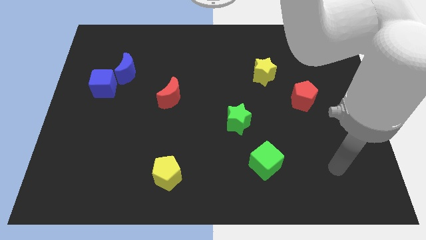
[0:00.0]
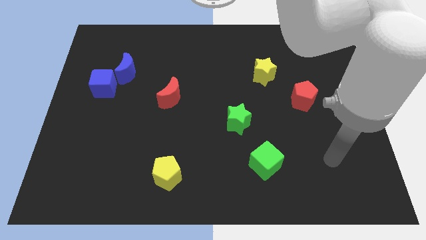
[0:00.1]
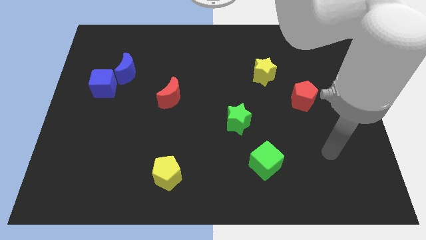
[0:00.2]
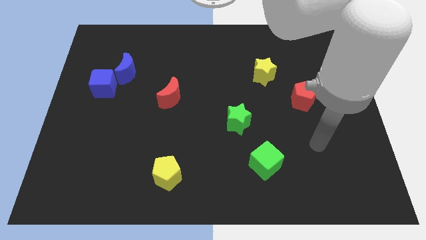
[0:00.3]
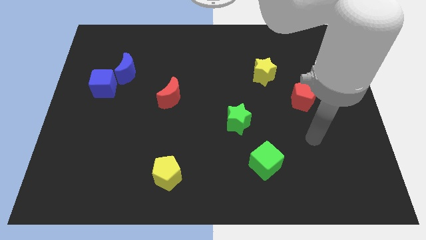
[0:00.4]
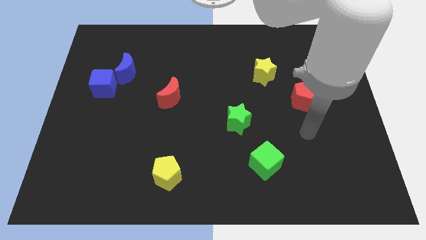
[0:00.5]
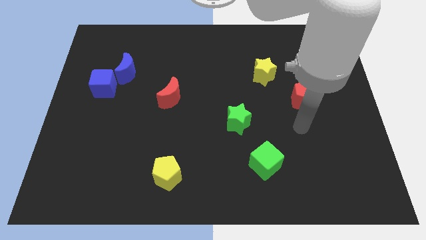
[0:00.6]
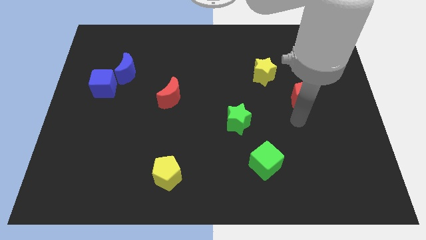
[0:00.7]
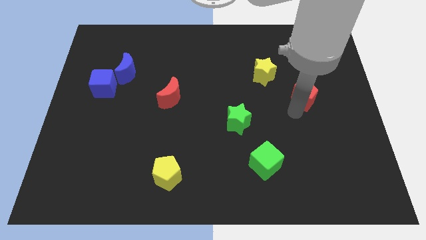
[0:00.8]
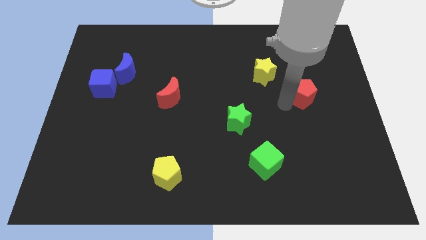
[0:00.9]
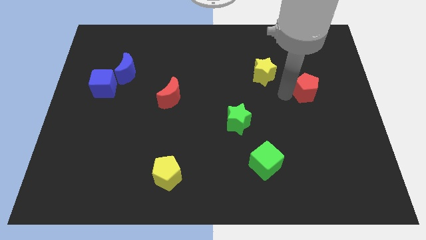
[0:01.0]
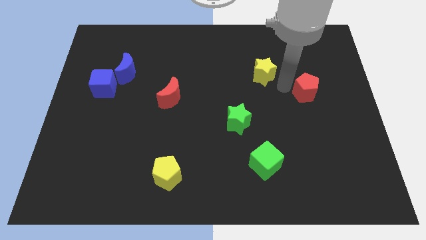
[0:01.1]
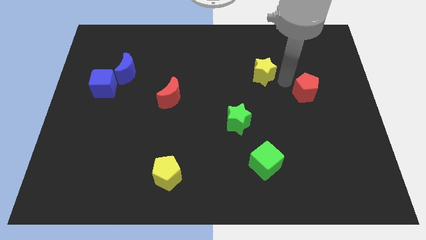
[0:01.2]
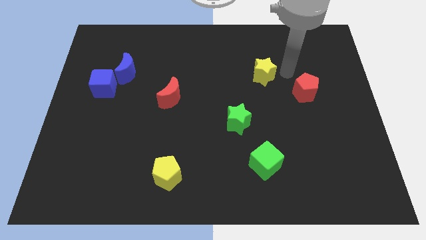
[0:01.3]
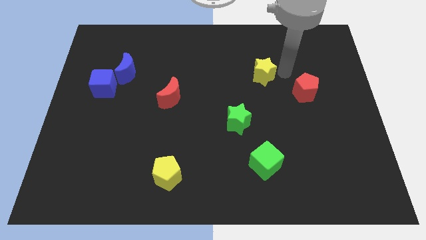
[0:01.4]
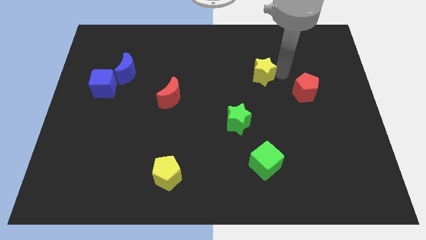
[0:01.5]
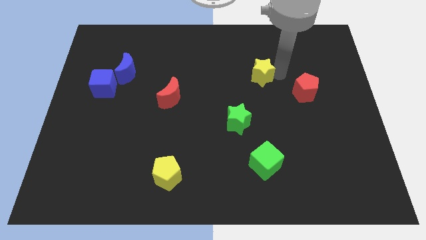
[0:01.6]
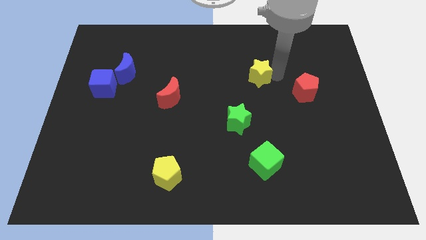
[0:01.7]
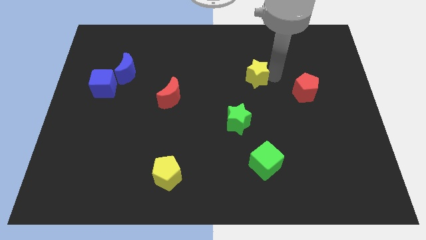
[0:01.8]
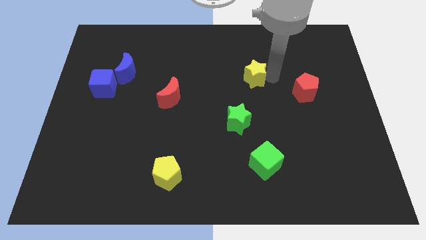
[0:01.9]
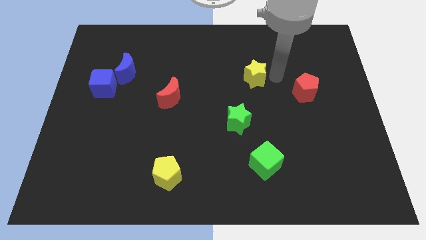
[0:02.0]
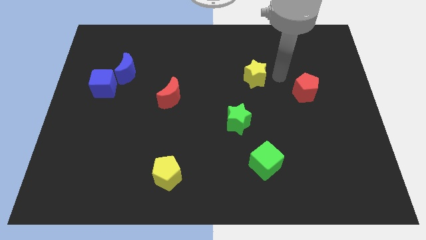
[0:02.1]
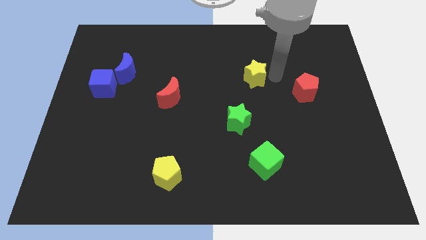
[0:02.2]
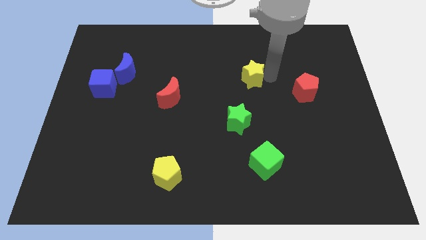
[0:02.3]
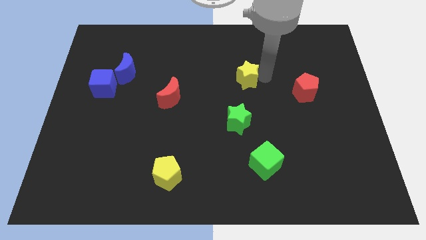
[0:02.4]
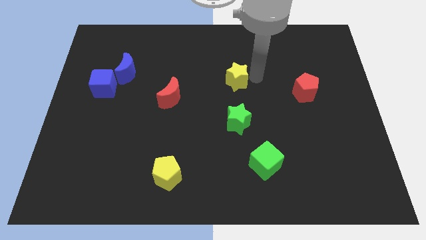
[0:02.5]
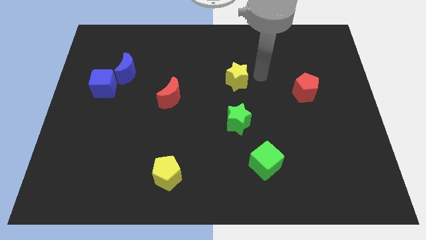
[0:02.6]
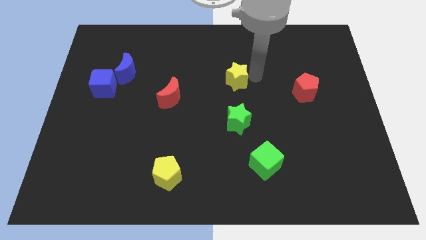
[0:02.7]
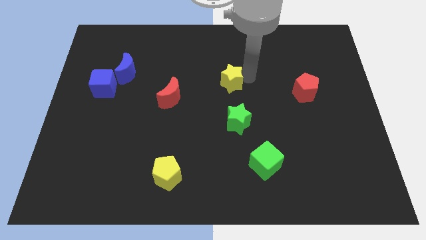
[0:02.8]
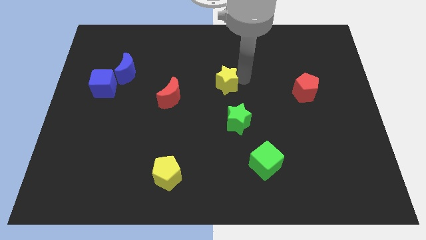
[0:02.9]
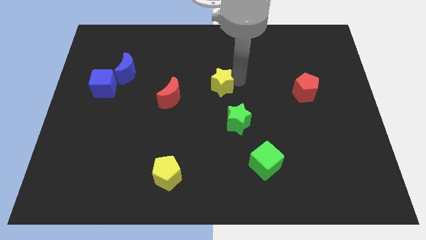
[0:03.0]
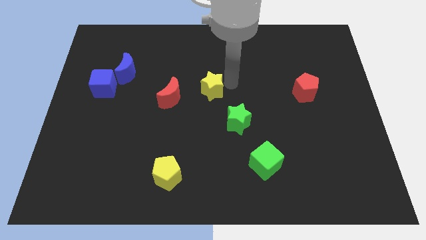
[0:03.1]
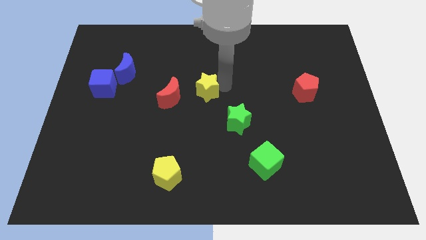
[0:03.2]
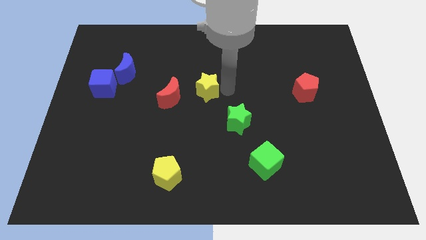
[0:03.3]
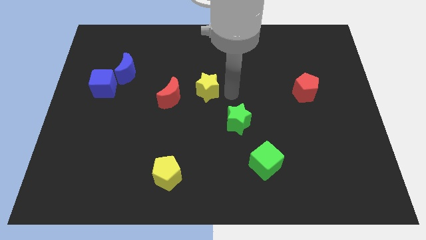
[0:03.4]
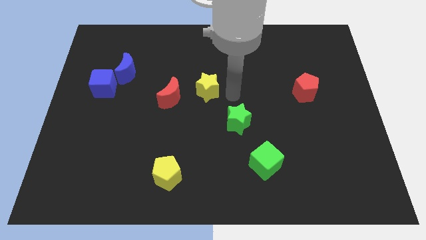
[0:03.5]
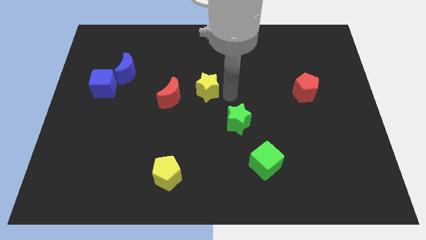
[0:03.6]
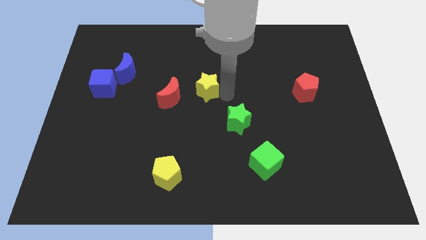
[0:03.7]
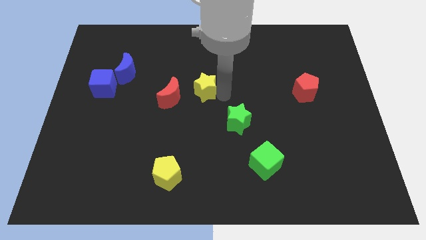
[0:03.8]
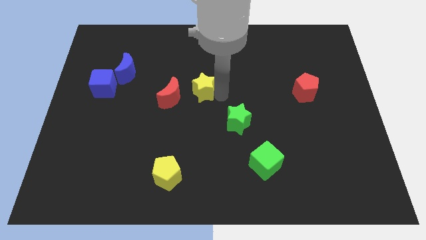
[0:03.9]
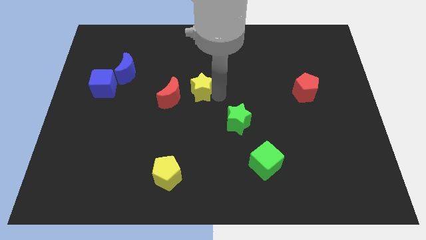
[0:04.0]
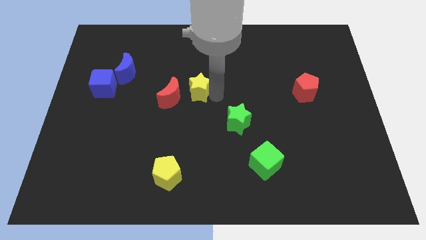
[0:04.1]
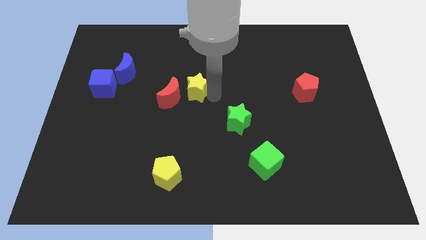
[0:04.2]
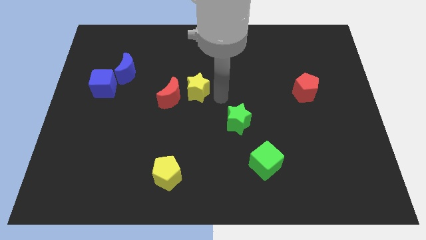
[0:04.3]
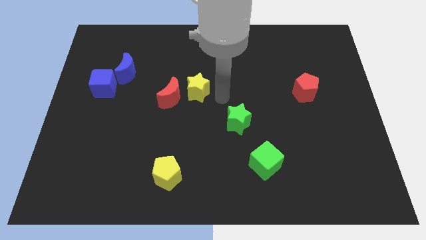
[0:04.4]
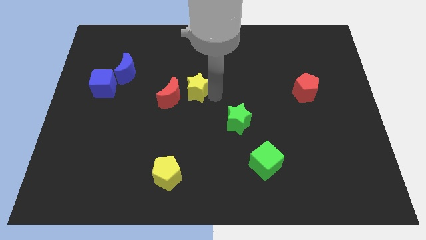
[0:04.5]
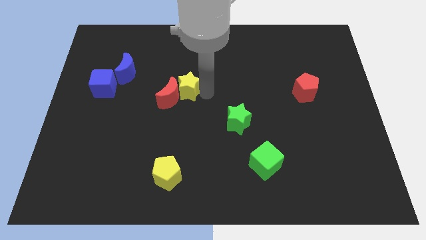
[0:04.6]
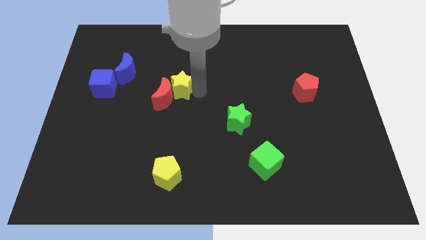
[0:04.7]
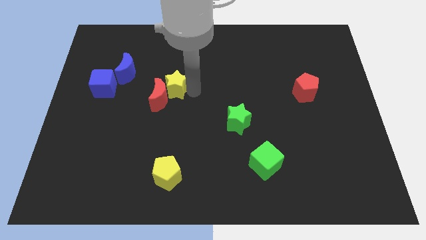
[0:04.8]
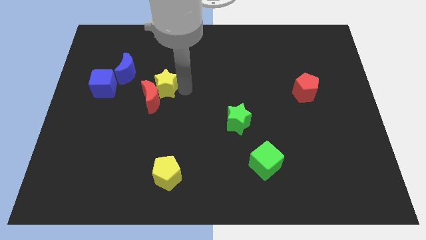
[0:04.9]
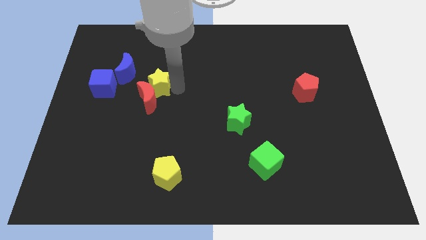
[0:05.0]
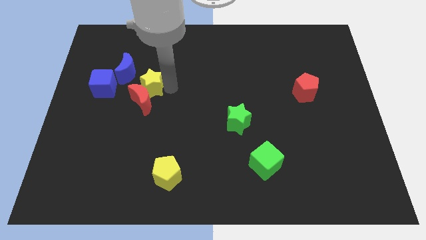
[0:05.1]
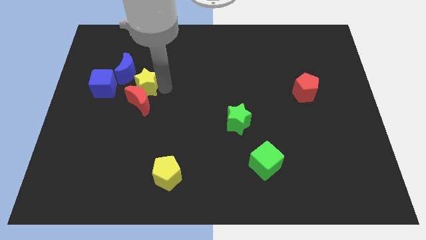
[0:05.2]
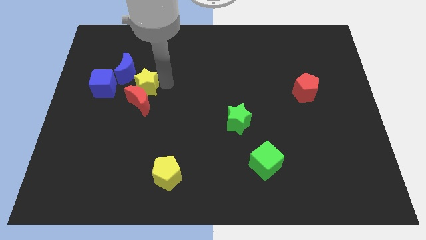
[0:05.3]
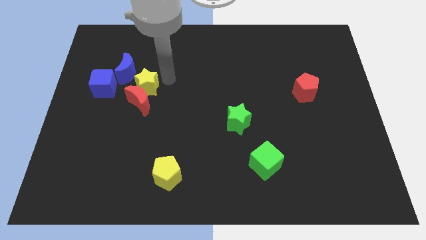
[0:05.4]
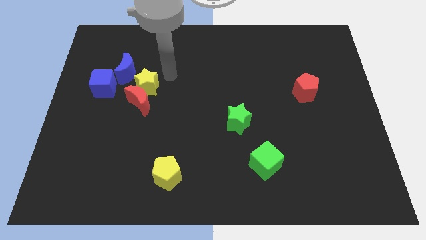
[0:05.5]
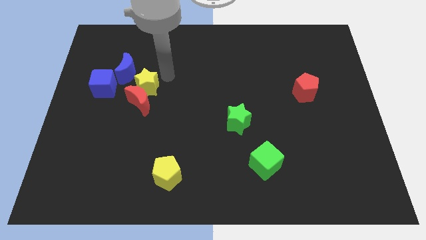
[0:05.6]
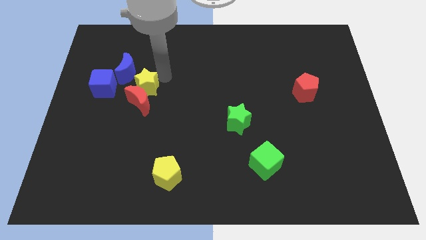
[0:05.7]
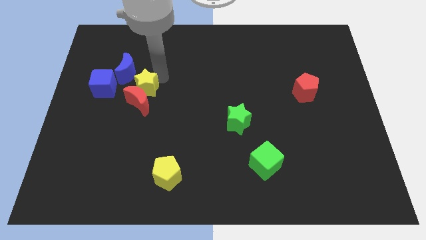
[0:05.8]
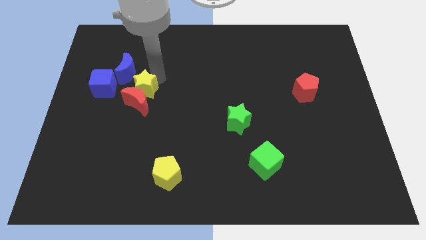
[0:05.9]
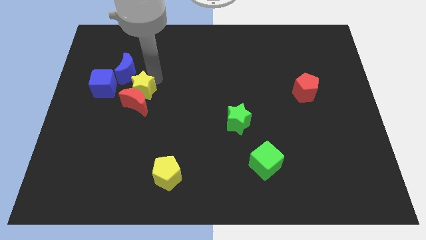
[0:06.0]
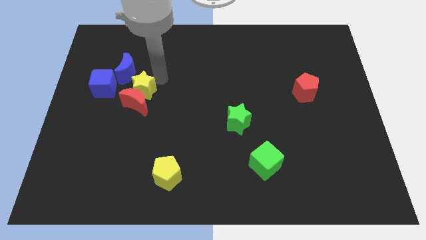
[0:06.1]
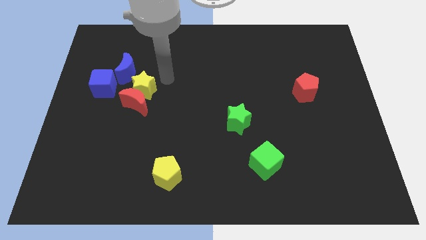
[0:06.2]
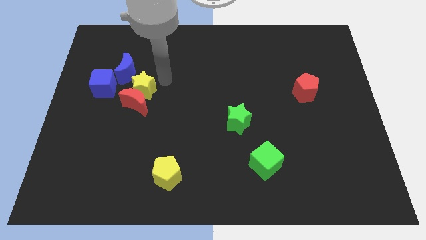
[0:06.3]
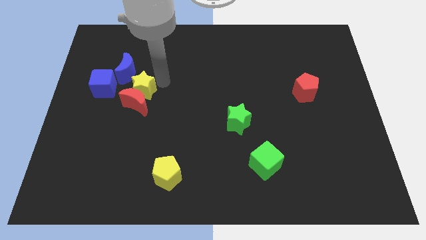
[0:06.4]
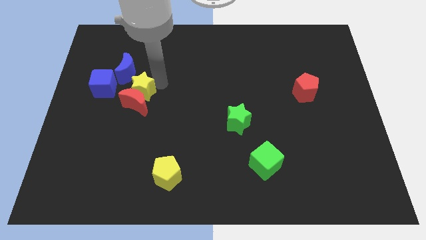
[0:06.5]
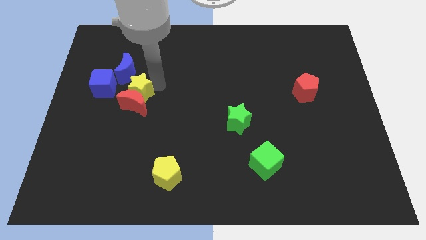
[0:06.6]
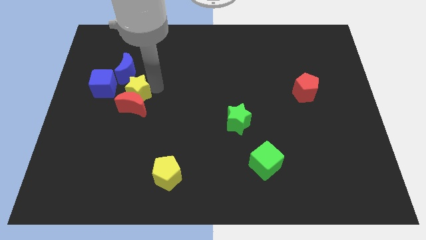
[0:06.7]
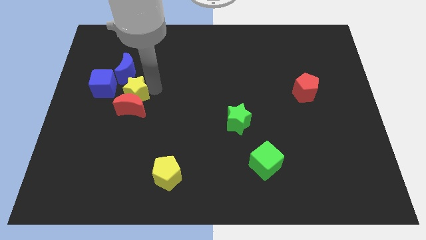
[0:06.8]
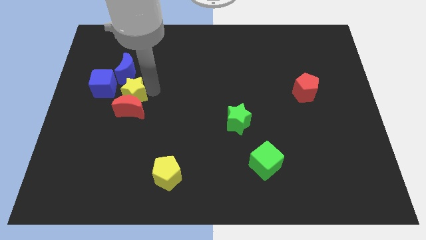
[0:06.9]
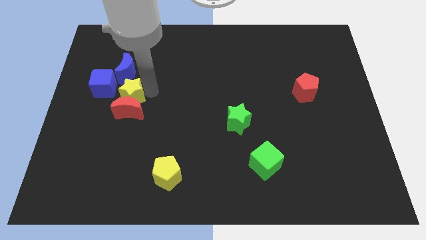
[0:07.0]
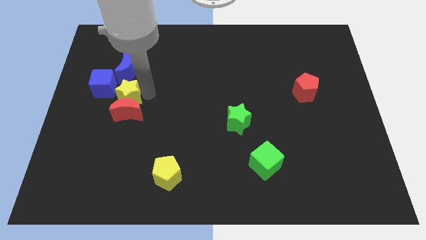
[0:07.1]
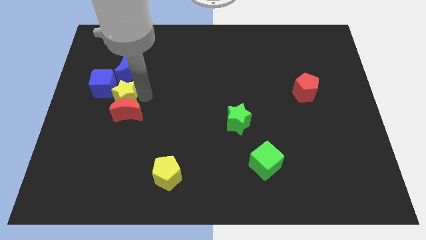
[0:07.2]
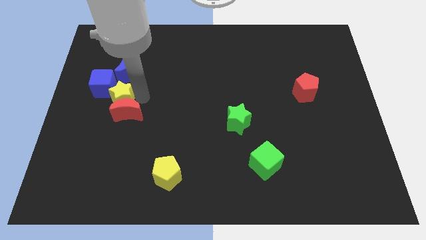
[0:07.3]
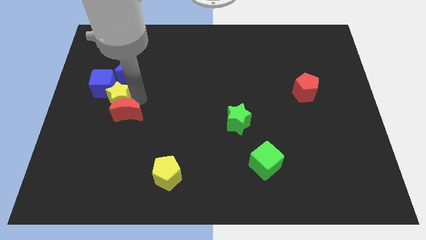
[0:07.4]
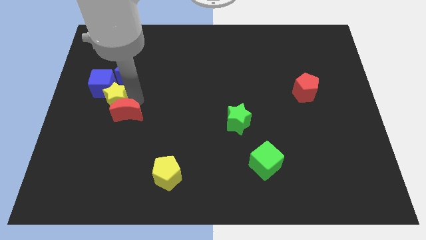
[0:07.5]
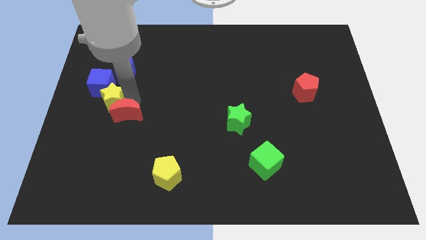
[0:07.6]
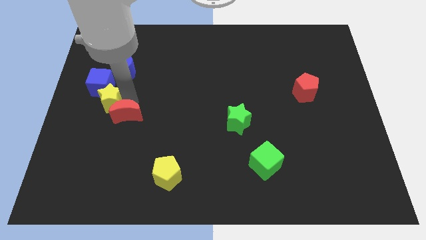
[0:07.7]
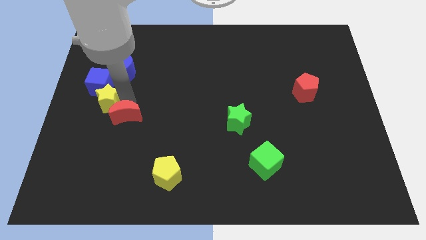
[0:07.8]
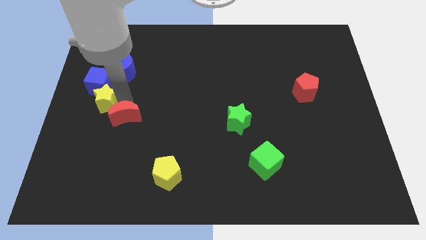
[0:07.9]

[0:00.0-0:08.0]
move the yellow star to the left side of the board
